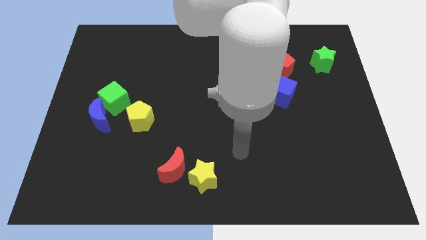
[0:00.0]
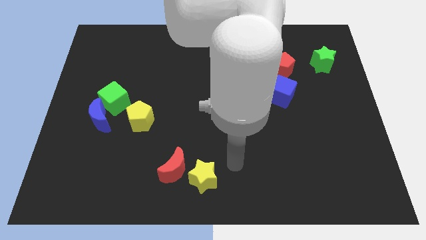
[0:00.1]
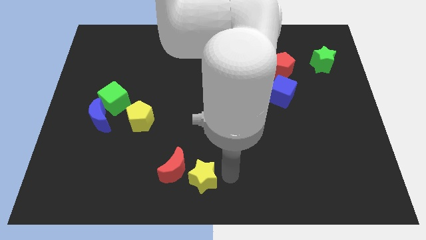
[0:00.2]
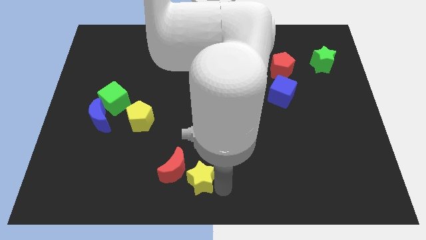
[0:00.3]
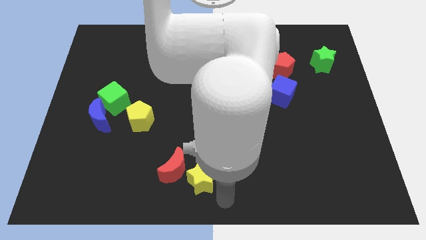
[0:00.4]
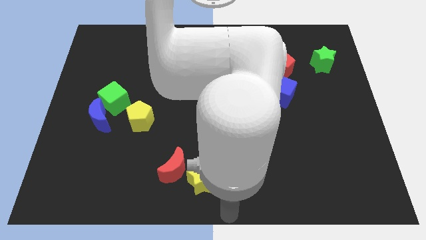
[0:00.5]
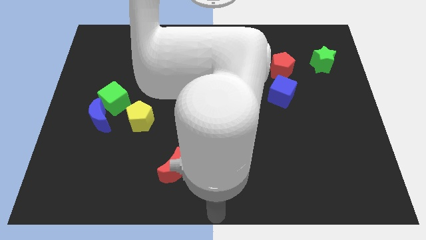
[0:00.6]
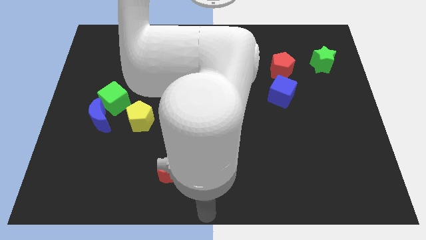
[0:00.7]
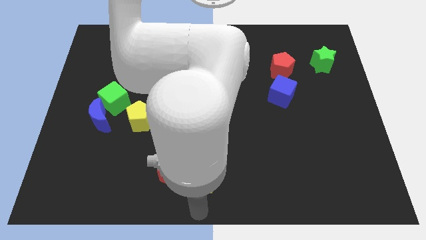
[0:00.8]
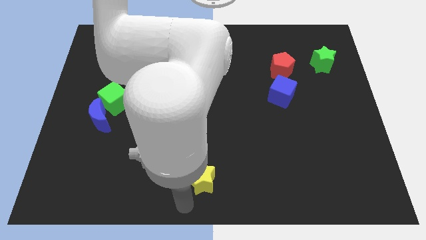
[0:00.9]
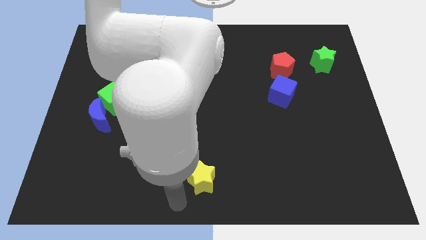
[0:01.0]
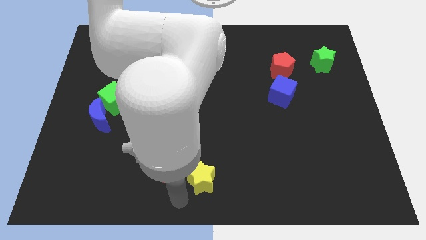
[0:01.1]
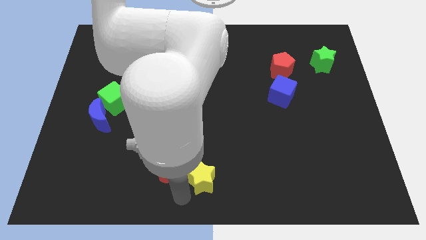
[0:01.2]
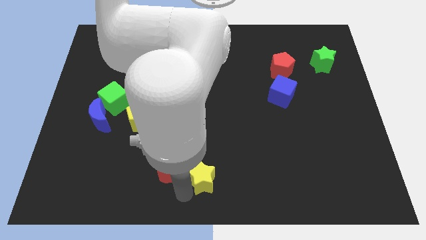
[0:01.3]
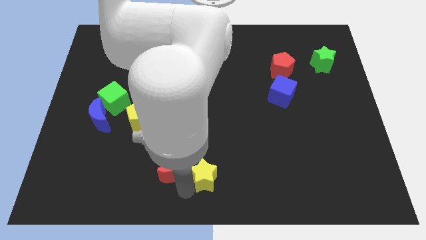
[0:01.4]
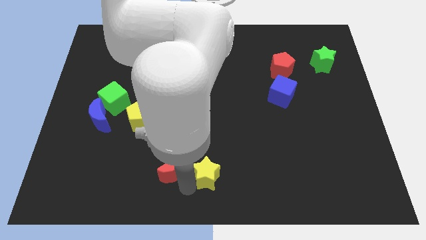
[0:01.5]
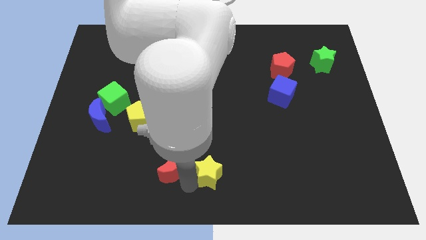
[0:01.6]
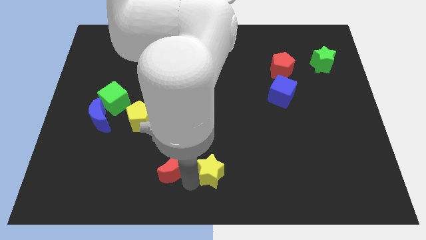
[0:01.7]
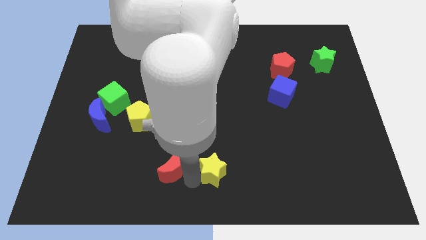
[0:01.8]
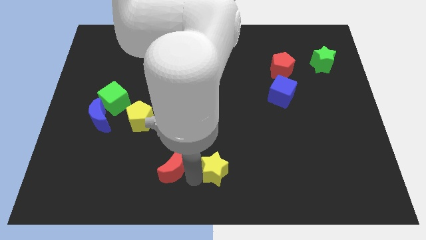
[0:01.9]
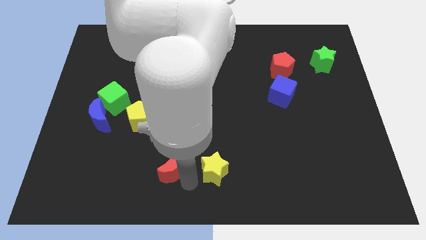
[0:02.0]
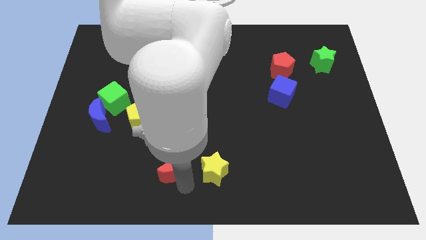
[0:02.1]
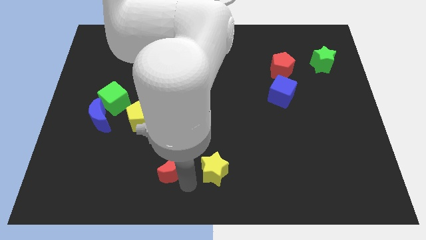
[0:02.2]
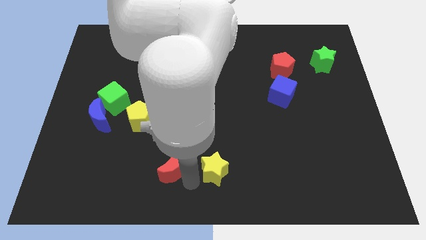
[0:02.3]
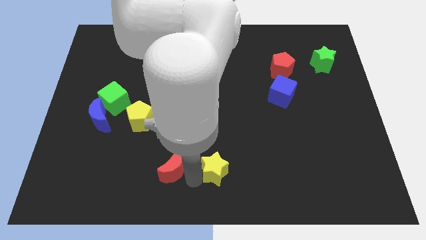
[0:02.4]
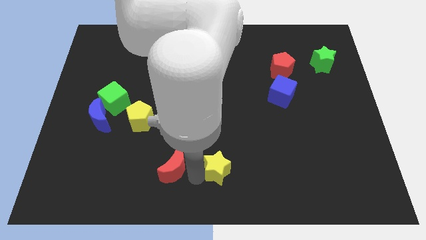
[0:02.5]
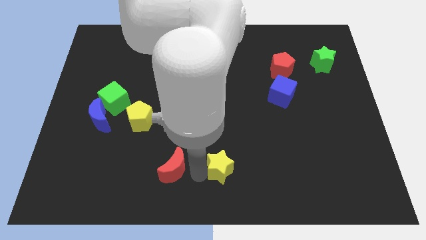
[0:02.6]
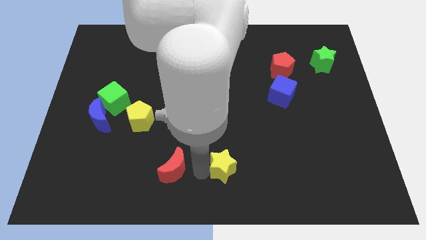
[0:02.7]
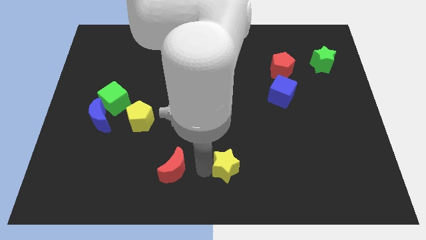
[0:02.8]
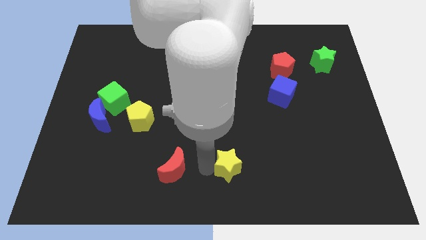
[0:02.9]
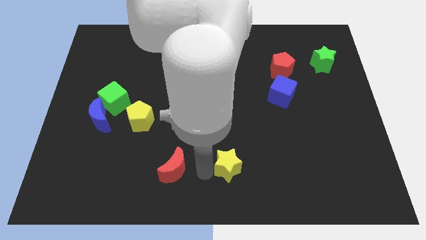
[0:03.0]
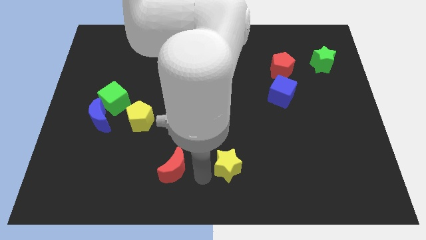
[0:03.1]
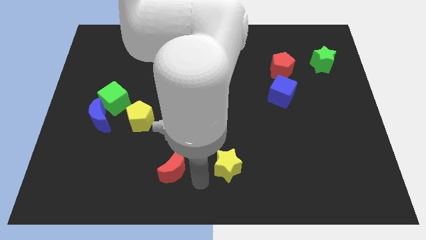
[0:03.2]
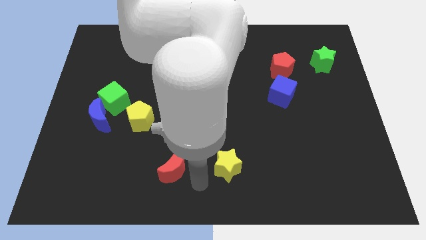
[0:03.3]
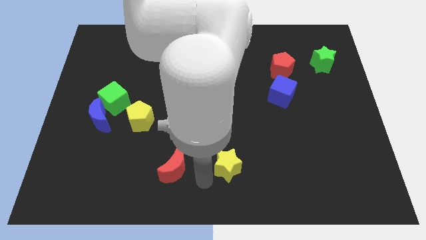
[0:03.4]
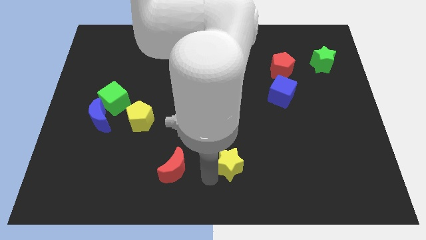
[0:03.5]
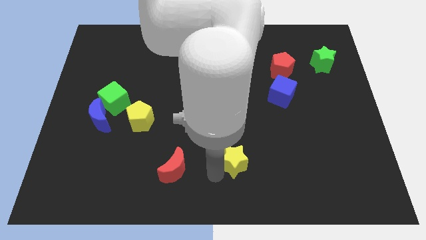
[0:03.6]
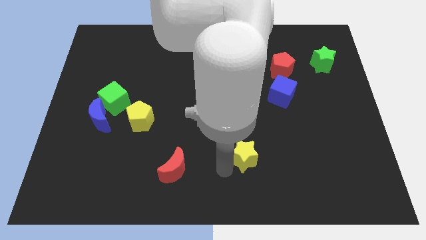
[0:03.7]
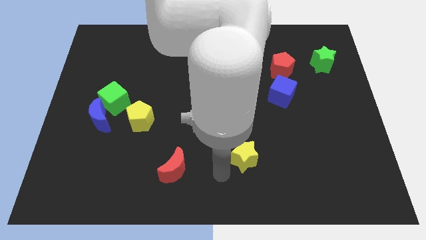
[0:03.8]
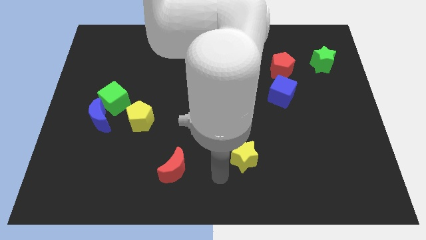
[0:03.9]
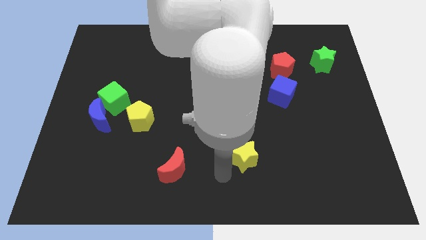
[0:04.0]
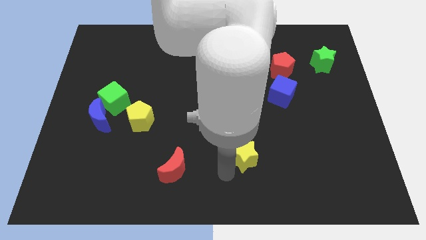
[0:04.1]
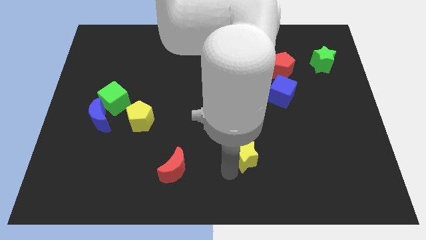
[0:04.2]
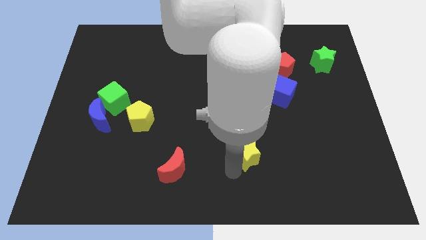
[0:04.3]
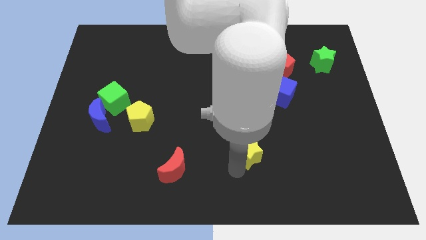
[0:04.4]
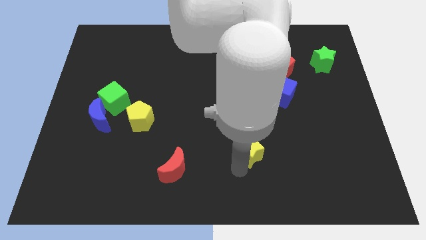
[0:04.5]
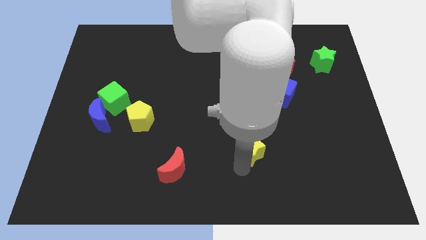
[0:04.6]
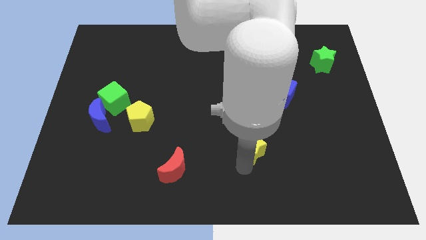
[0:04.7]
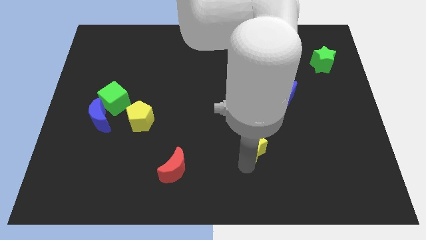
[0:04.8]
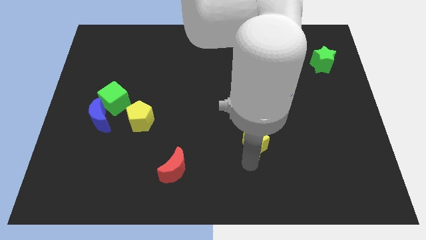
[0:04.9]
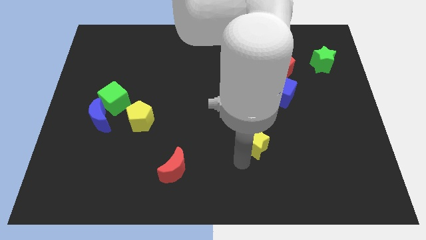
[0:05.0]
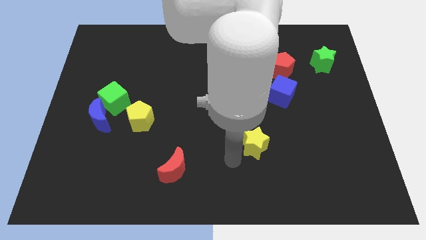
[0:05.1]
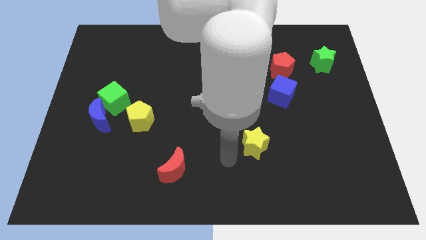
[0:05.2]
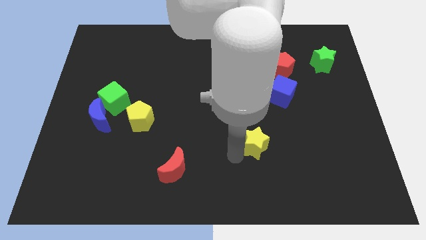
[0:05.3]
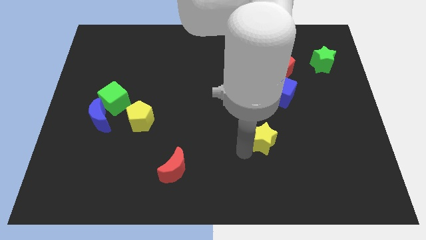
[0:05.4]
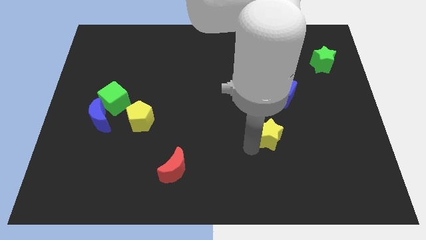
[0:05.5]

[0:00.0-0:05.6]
move the yellow star to the bottom side of the blue cube

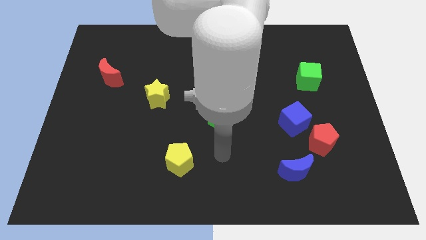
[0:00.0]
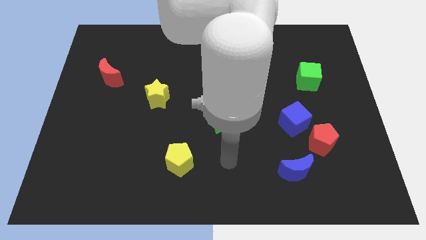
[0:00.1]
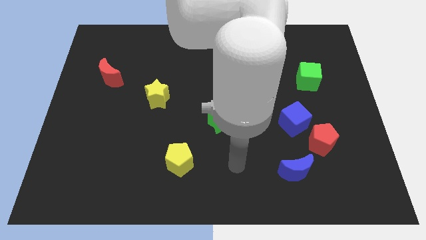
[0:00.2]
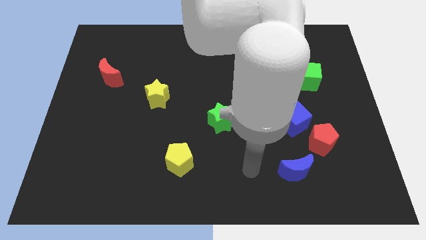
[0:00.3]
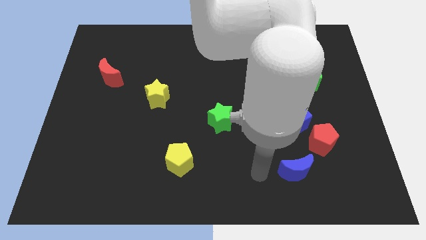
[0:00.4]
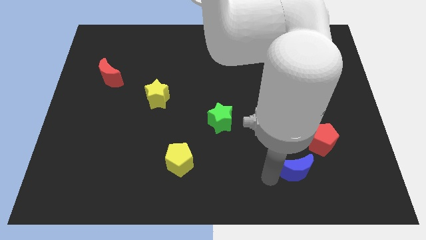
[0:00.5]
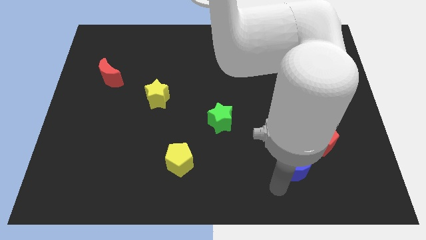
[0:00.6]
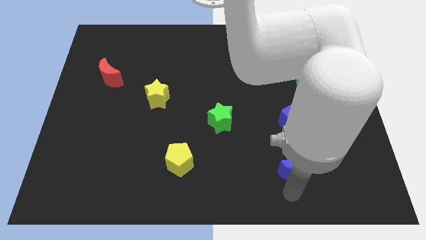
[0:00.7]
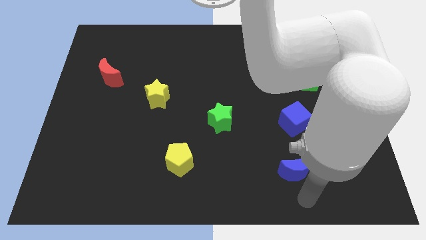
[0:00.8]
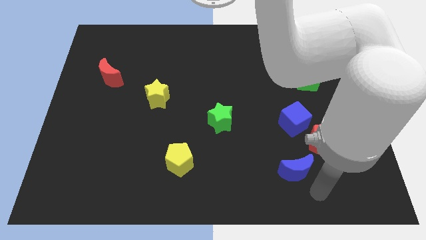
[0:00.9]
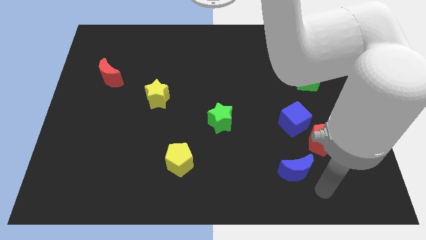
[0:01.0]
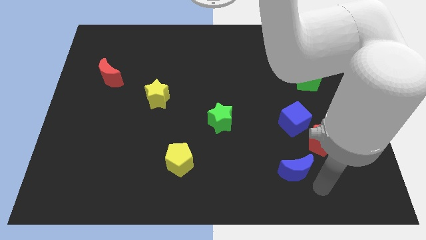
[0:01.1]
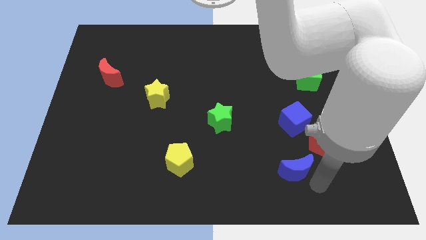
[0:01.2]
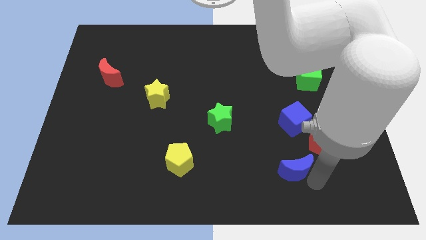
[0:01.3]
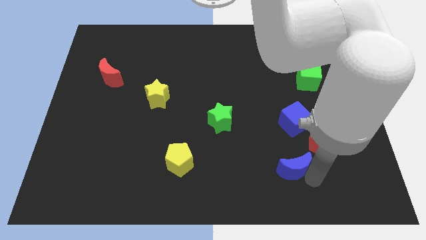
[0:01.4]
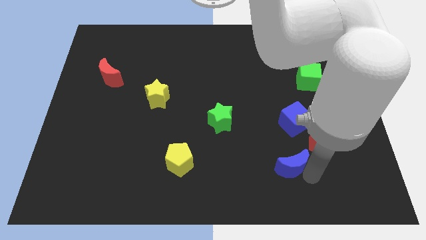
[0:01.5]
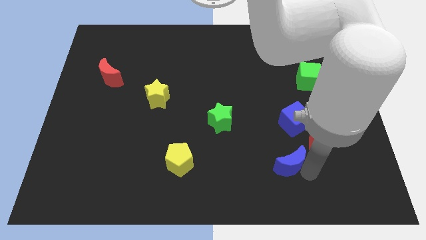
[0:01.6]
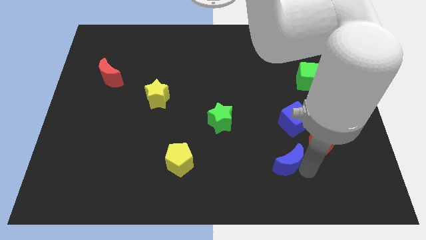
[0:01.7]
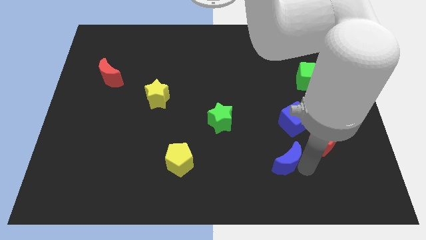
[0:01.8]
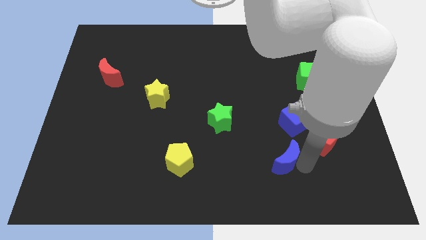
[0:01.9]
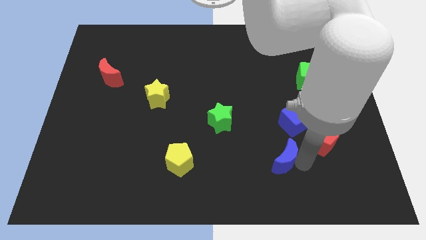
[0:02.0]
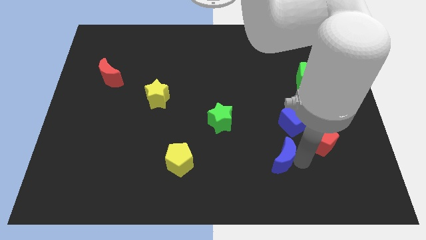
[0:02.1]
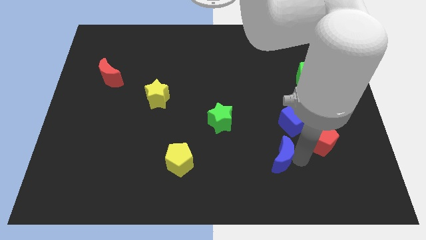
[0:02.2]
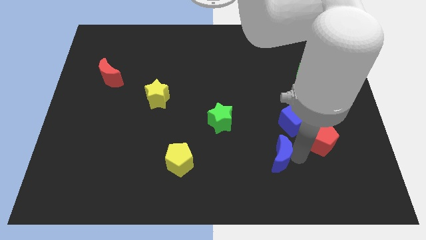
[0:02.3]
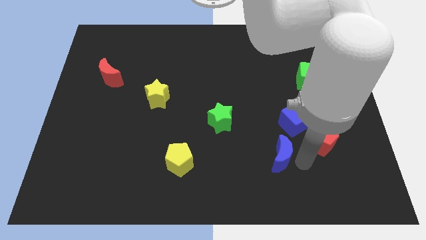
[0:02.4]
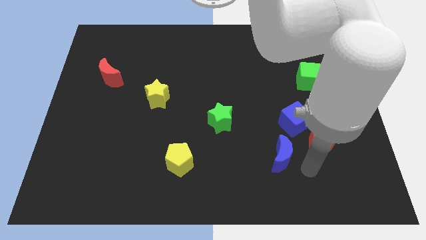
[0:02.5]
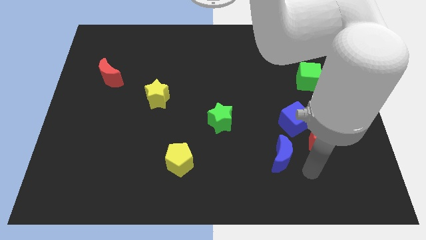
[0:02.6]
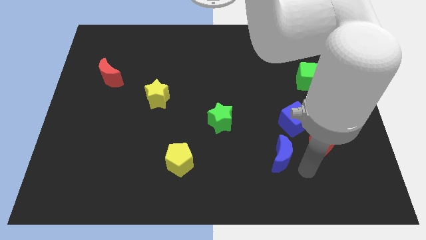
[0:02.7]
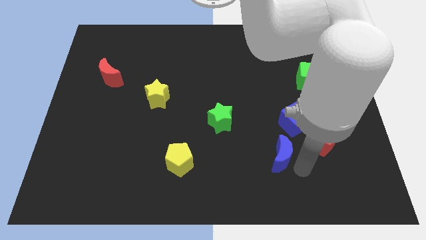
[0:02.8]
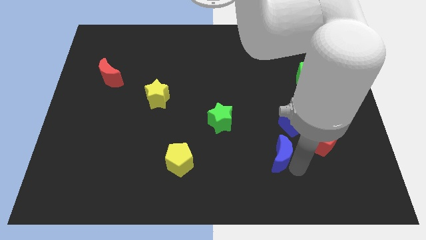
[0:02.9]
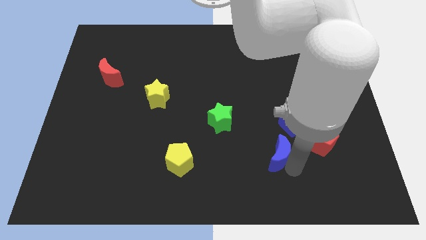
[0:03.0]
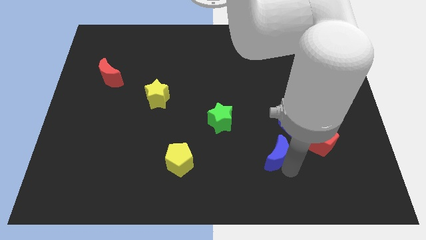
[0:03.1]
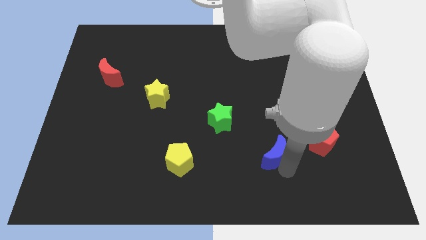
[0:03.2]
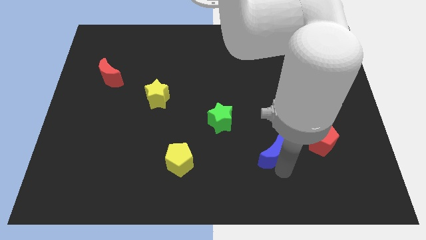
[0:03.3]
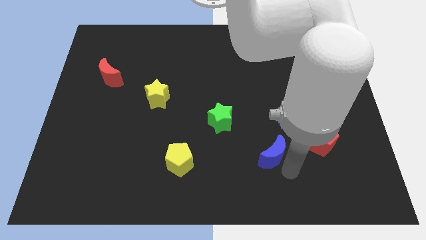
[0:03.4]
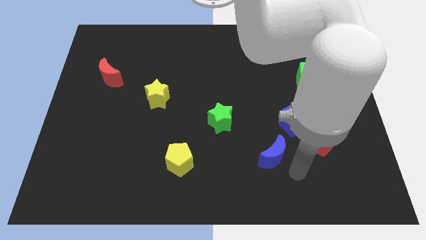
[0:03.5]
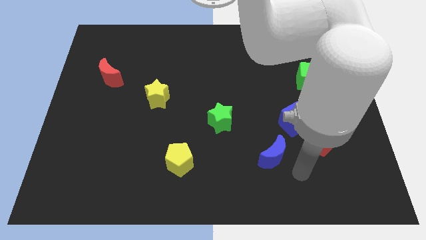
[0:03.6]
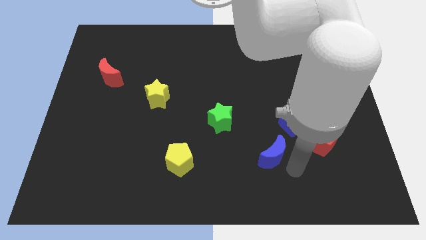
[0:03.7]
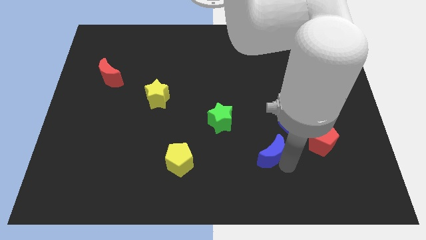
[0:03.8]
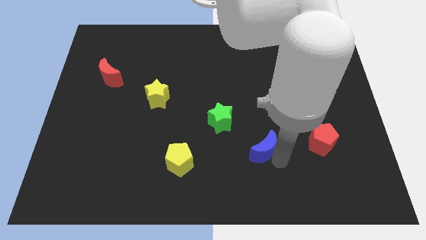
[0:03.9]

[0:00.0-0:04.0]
slide the blue moon to the bottom right of the green star
